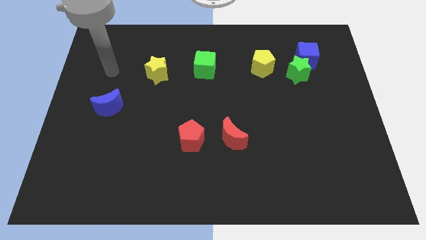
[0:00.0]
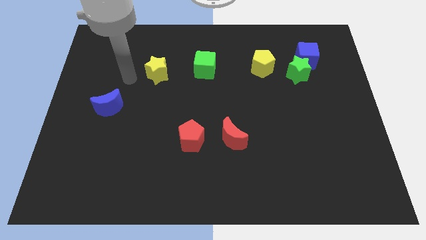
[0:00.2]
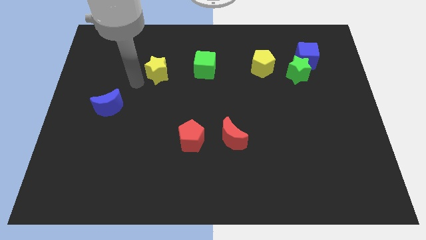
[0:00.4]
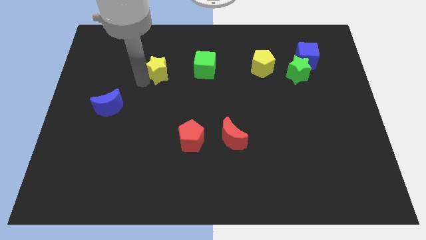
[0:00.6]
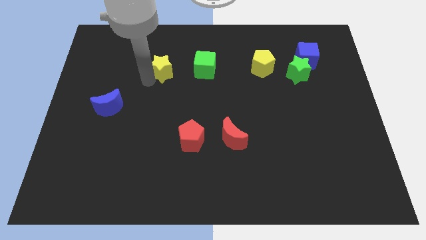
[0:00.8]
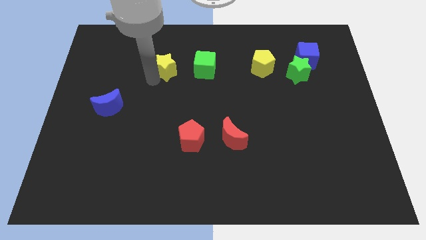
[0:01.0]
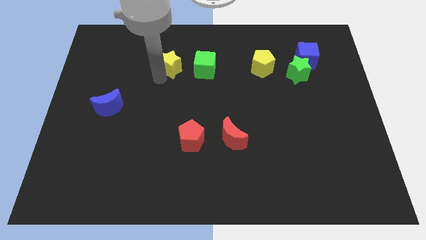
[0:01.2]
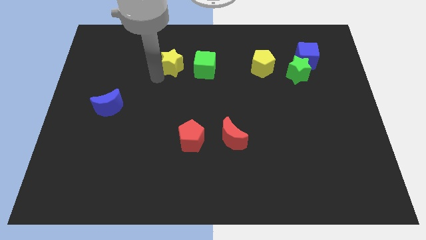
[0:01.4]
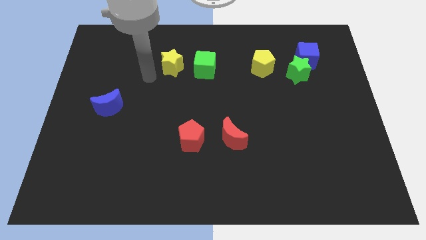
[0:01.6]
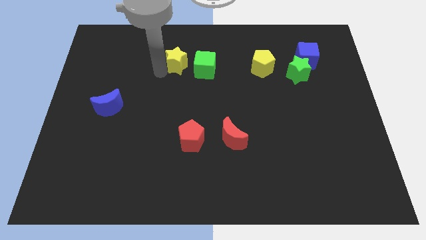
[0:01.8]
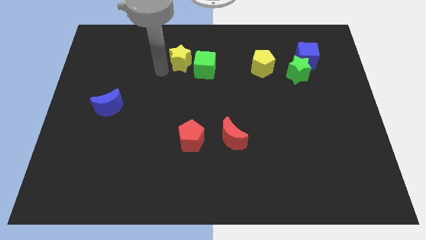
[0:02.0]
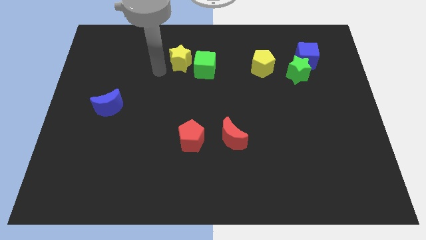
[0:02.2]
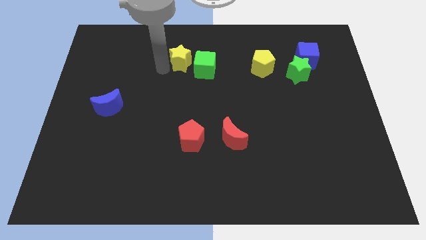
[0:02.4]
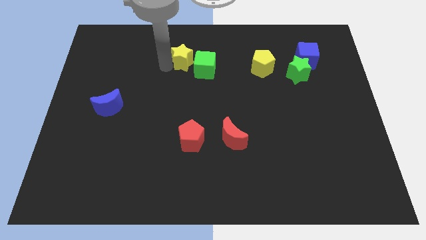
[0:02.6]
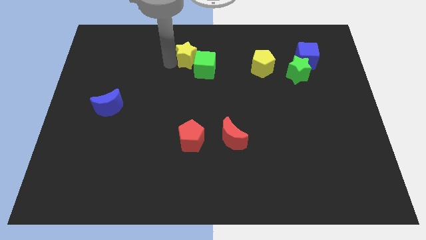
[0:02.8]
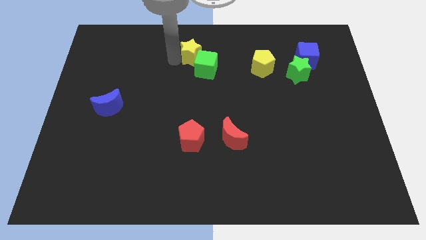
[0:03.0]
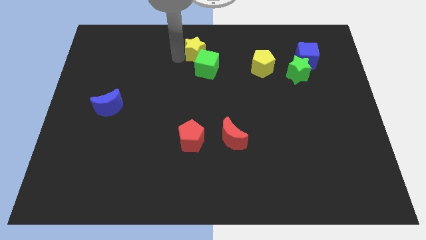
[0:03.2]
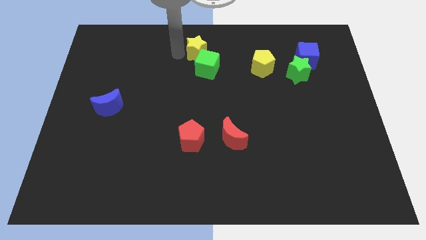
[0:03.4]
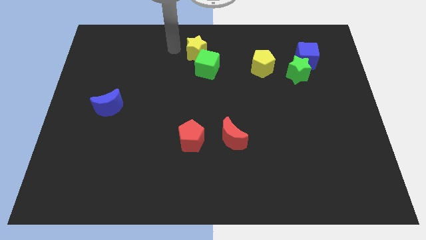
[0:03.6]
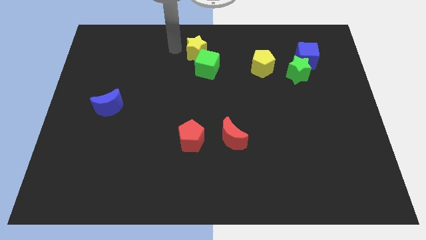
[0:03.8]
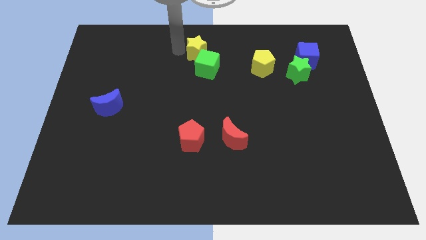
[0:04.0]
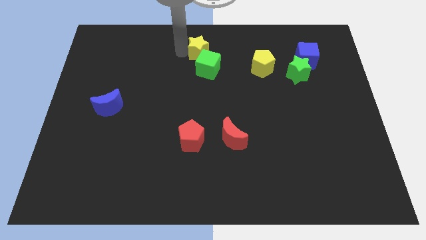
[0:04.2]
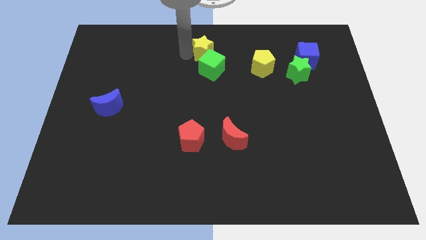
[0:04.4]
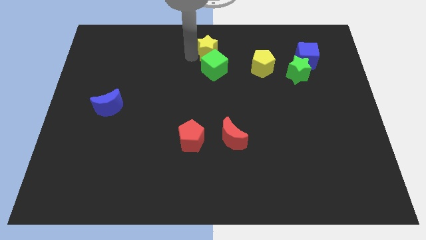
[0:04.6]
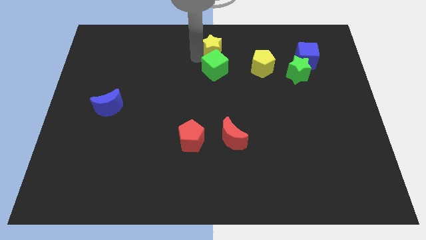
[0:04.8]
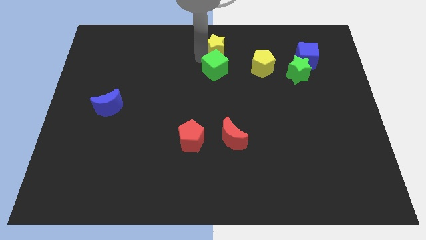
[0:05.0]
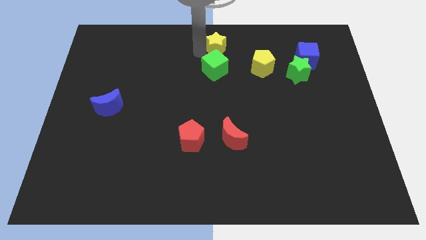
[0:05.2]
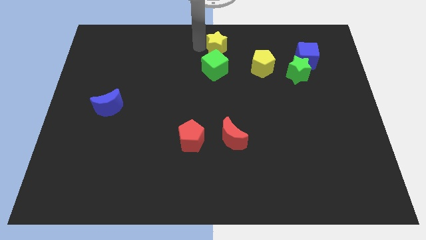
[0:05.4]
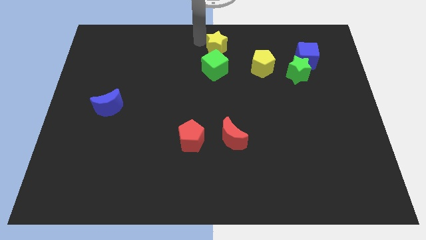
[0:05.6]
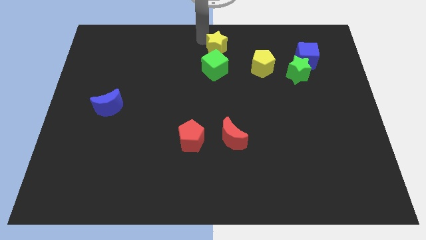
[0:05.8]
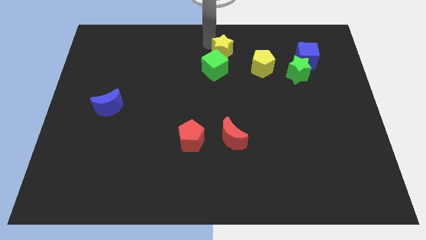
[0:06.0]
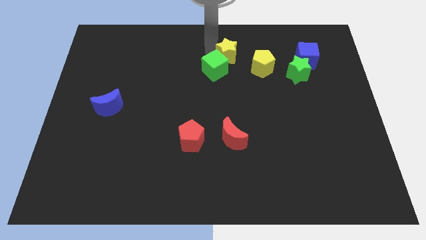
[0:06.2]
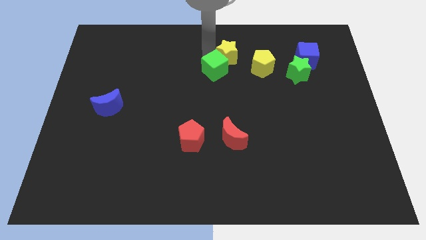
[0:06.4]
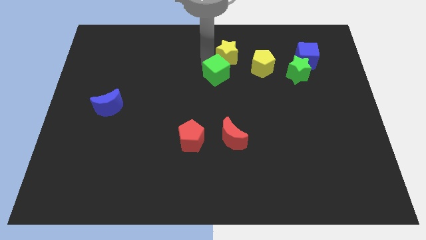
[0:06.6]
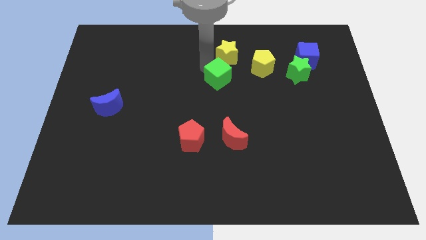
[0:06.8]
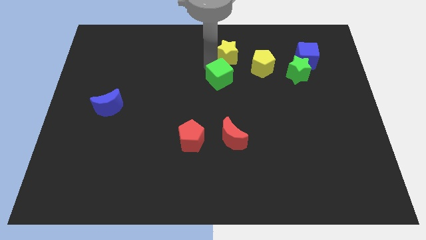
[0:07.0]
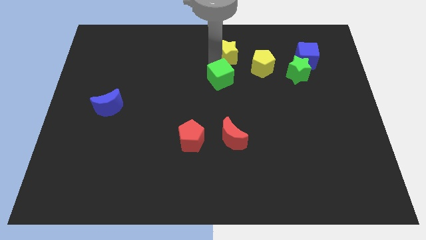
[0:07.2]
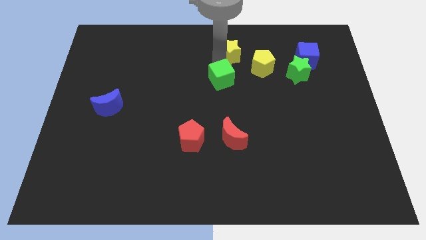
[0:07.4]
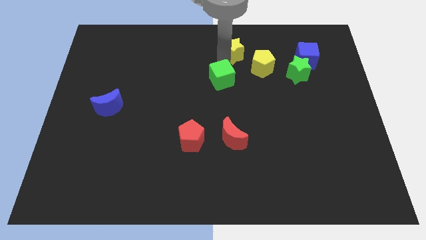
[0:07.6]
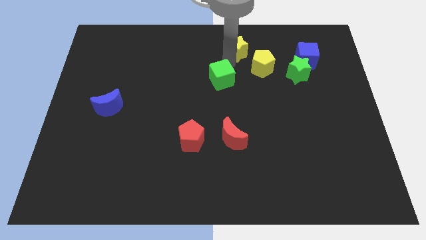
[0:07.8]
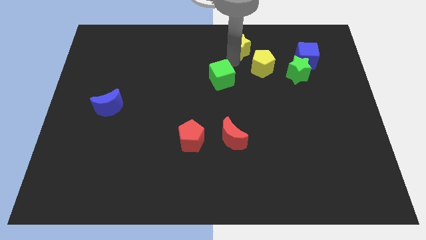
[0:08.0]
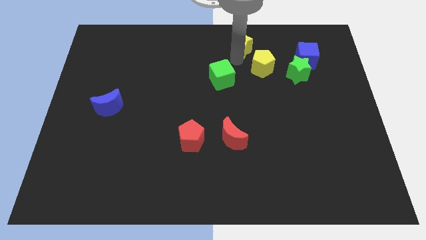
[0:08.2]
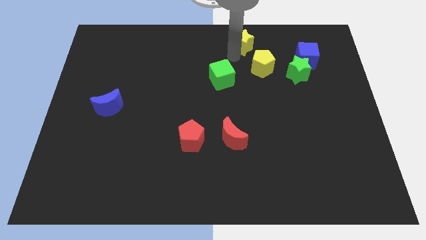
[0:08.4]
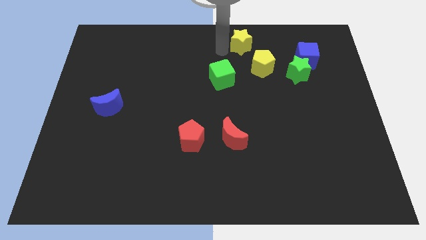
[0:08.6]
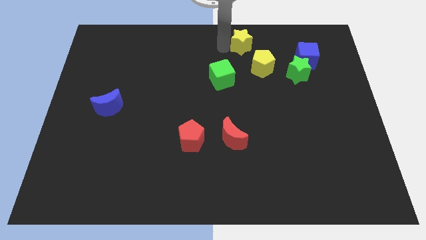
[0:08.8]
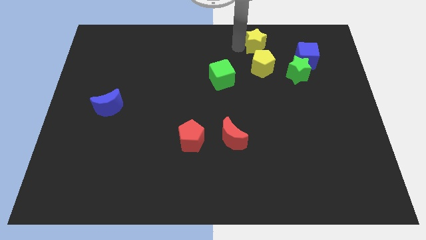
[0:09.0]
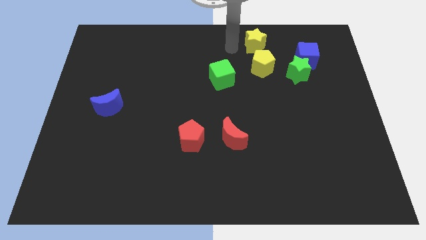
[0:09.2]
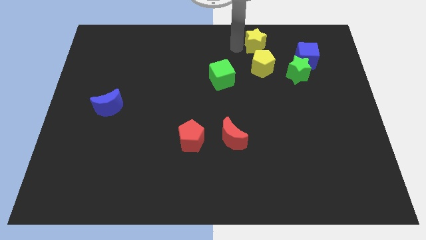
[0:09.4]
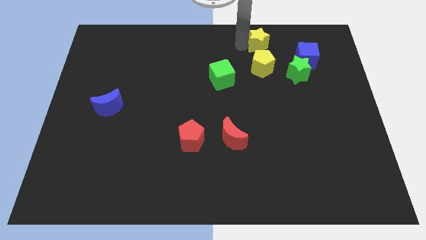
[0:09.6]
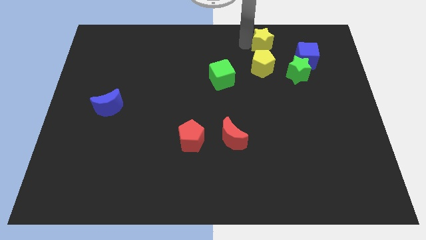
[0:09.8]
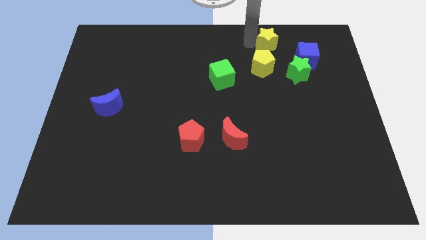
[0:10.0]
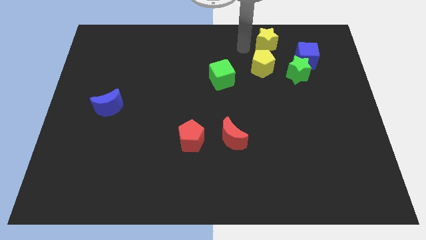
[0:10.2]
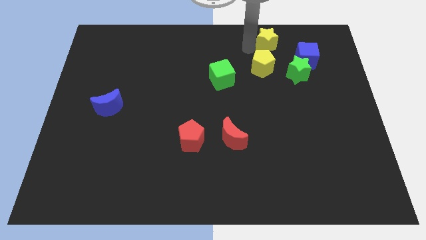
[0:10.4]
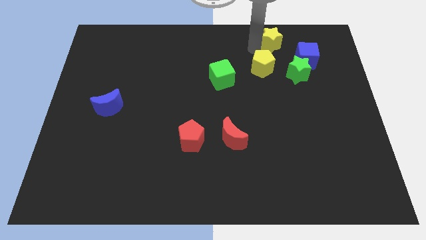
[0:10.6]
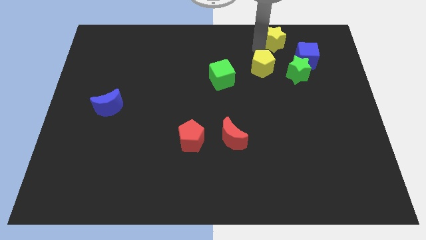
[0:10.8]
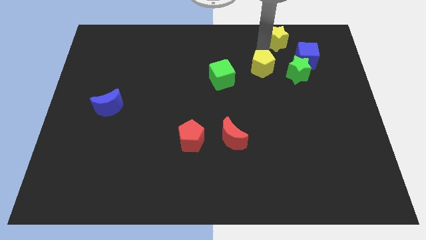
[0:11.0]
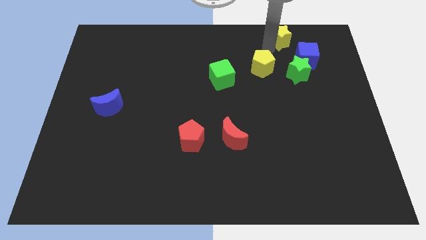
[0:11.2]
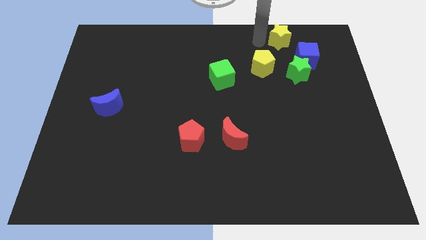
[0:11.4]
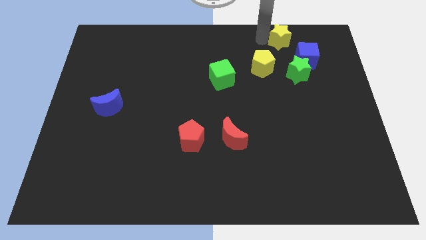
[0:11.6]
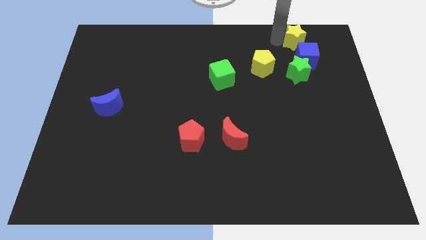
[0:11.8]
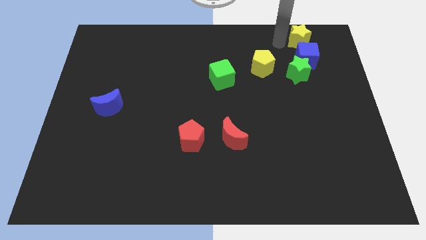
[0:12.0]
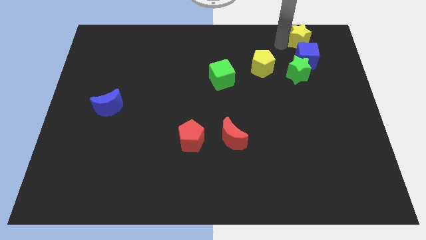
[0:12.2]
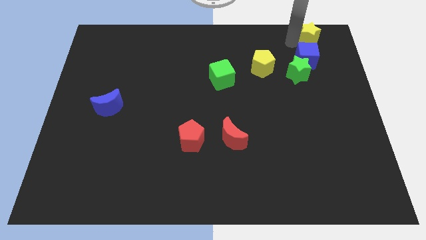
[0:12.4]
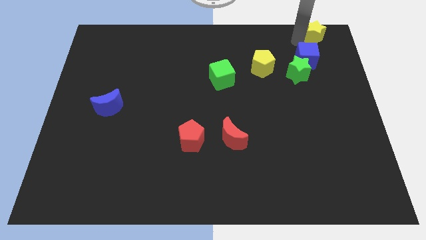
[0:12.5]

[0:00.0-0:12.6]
put the yellow star to the top right corner
